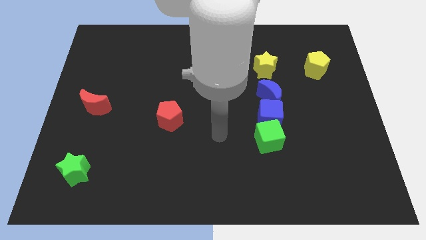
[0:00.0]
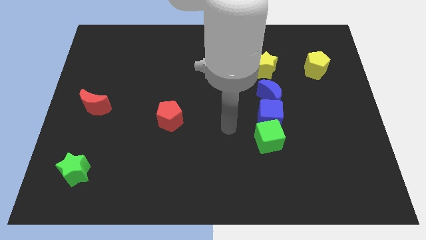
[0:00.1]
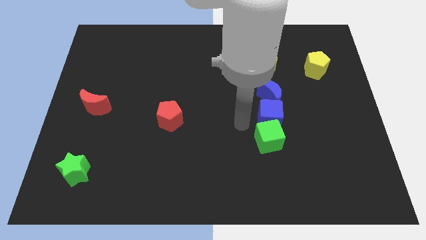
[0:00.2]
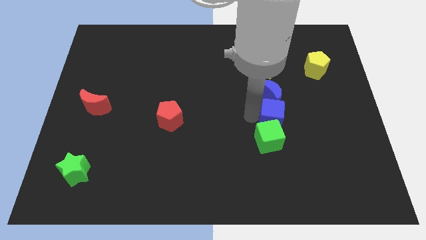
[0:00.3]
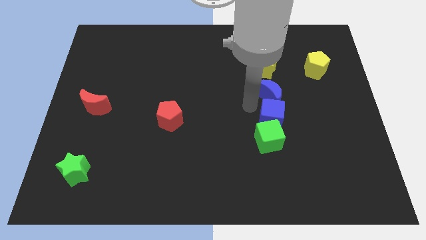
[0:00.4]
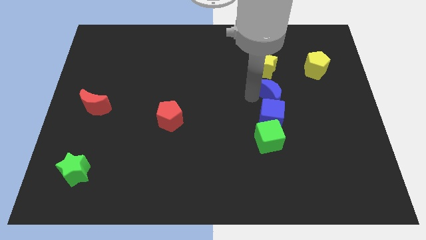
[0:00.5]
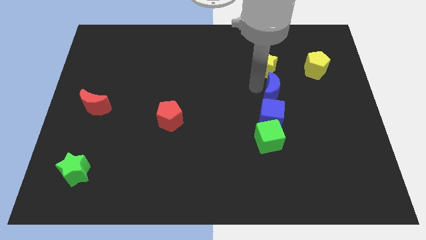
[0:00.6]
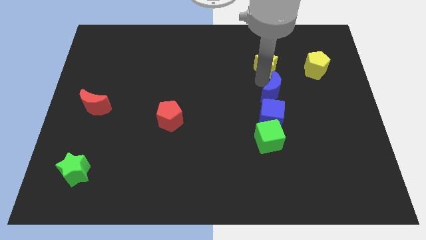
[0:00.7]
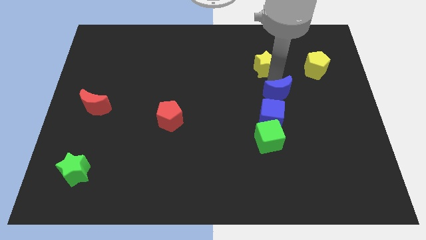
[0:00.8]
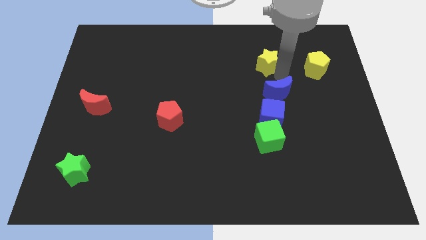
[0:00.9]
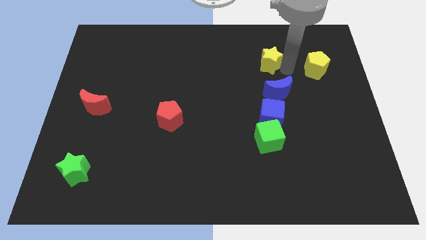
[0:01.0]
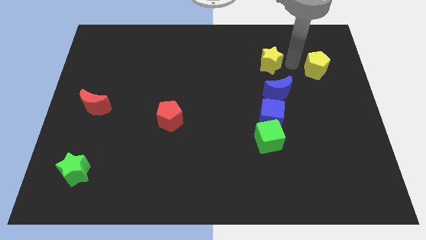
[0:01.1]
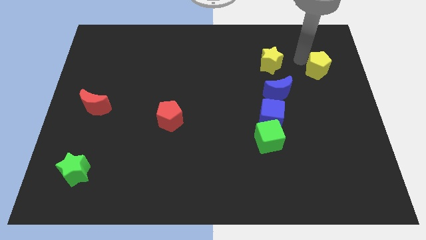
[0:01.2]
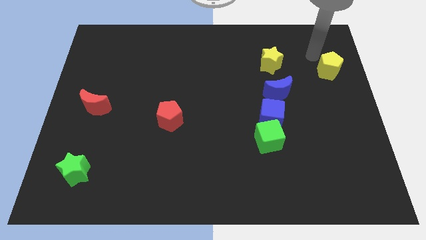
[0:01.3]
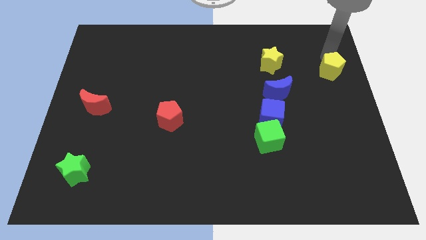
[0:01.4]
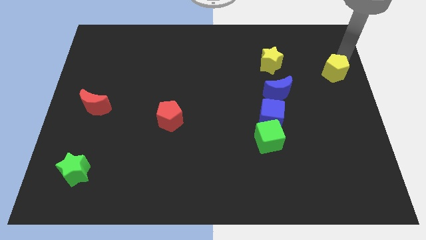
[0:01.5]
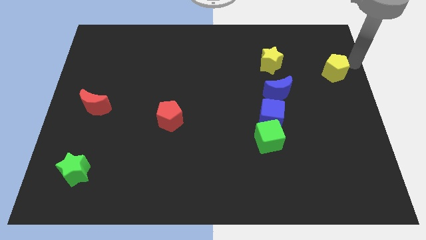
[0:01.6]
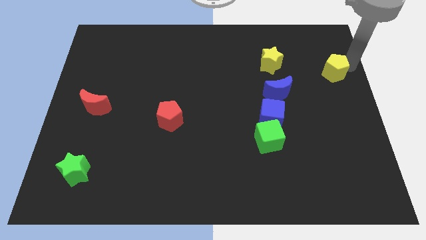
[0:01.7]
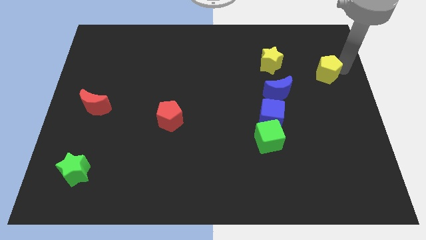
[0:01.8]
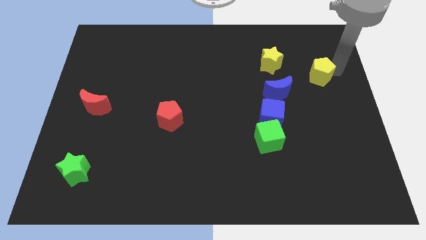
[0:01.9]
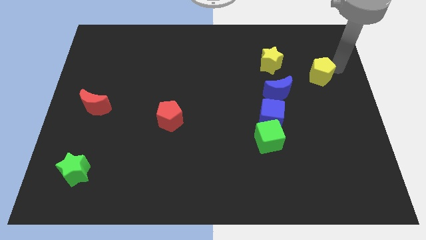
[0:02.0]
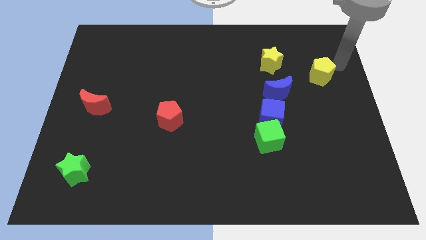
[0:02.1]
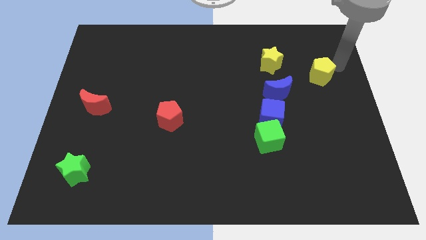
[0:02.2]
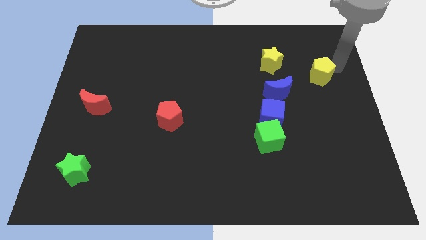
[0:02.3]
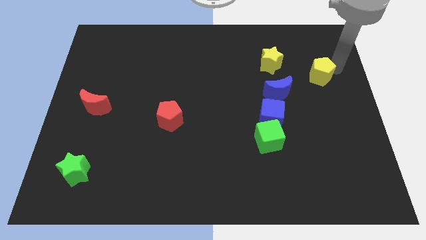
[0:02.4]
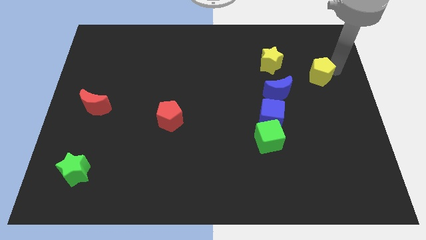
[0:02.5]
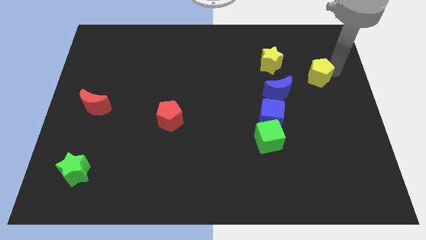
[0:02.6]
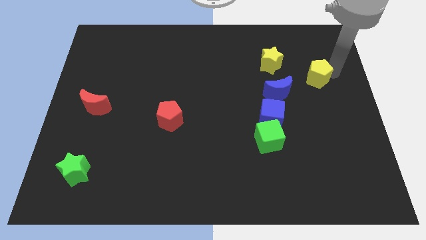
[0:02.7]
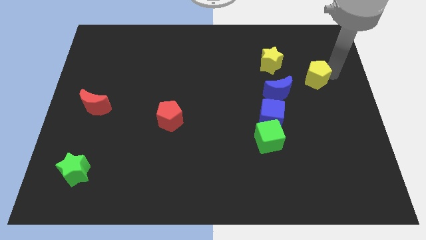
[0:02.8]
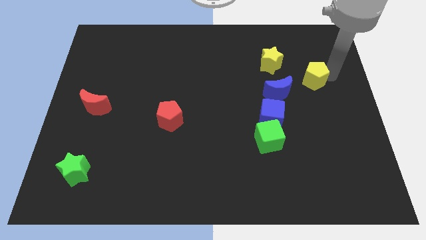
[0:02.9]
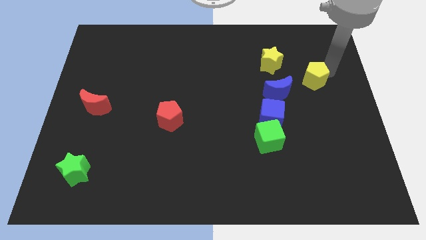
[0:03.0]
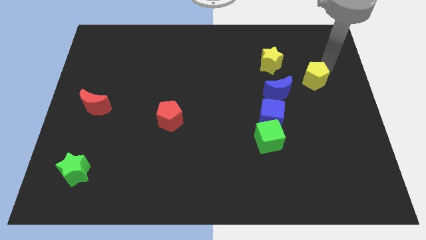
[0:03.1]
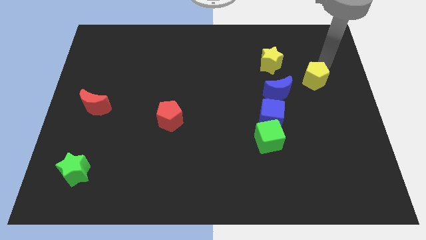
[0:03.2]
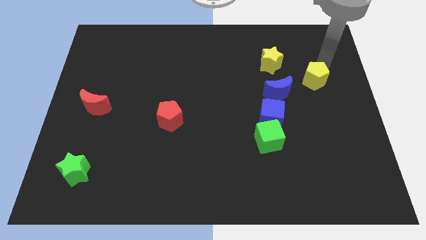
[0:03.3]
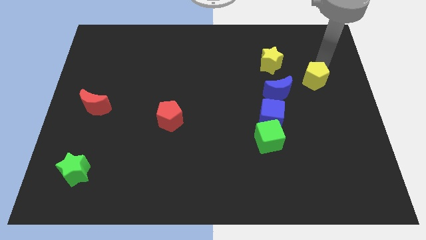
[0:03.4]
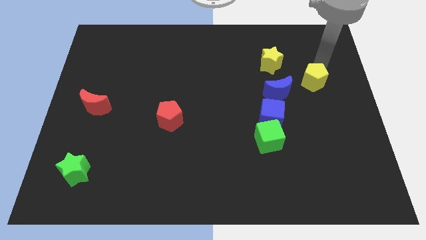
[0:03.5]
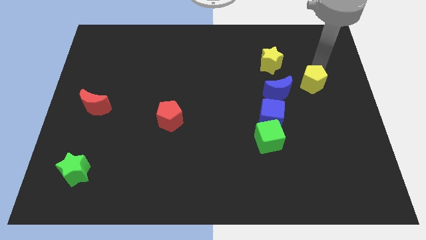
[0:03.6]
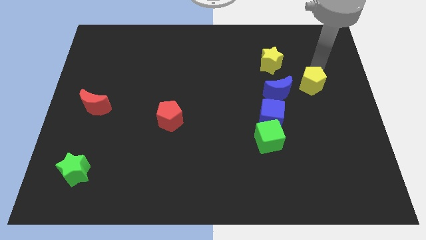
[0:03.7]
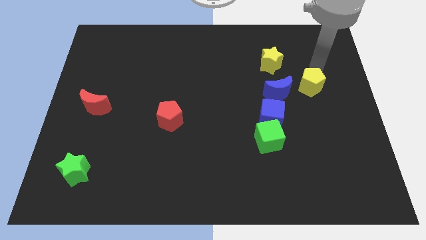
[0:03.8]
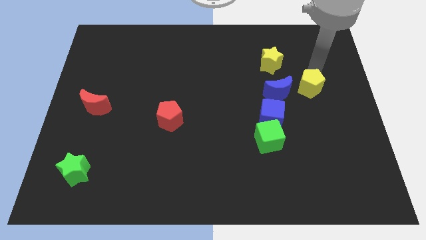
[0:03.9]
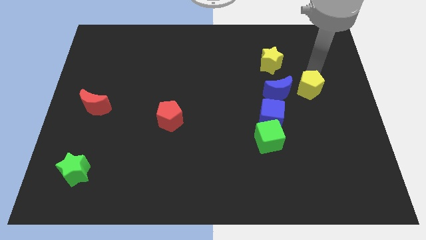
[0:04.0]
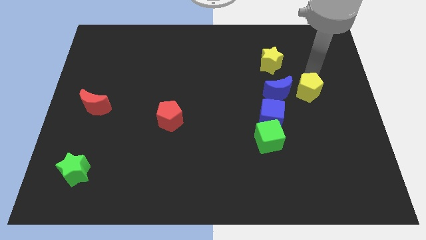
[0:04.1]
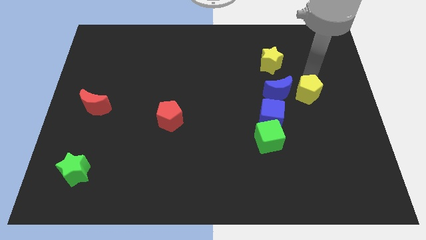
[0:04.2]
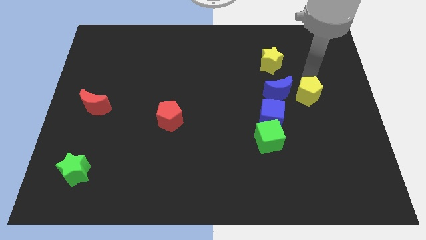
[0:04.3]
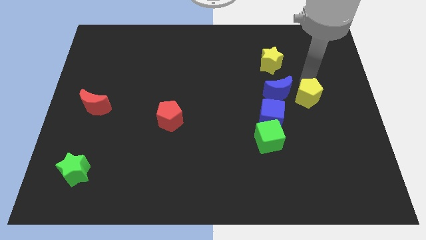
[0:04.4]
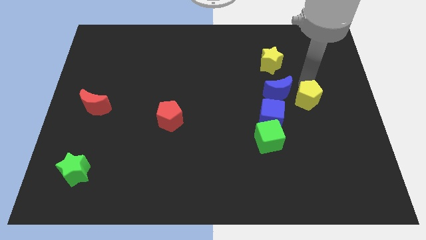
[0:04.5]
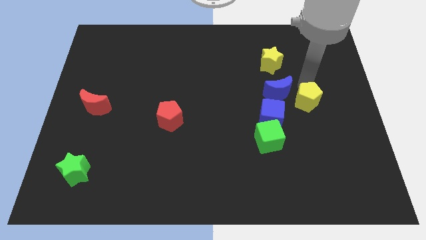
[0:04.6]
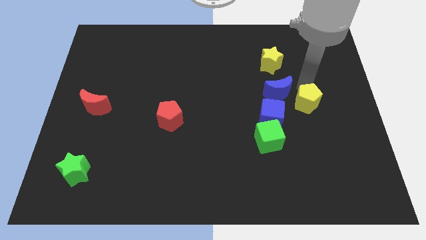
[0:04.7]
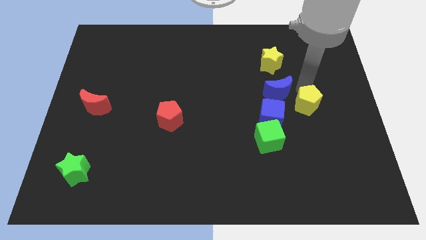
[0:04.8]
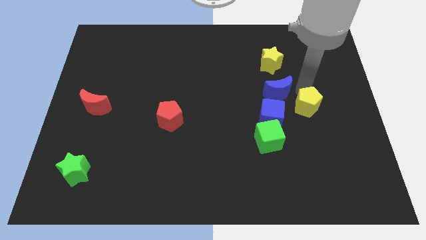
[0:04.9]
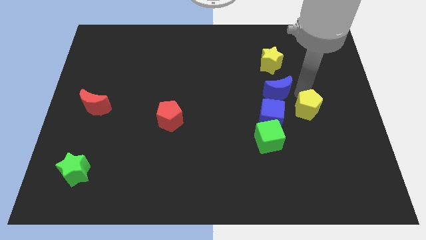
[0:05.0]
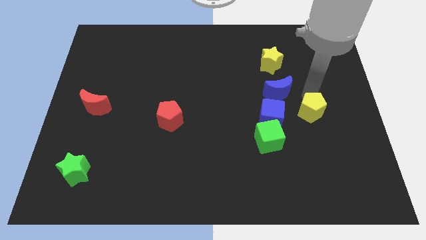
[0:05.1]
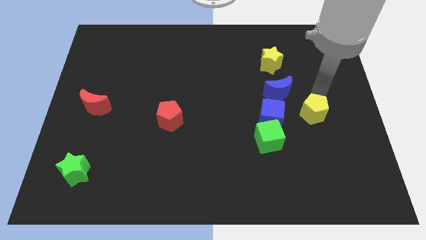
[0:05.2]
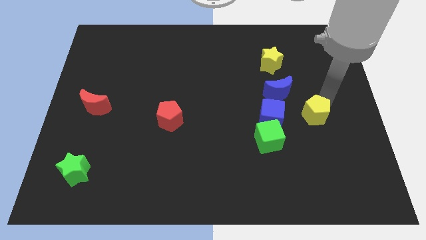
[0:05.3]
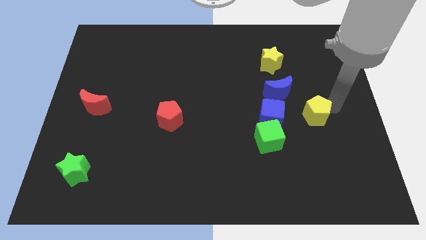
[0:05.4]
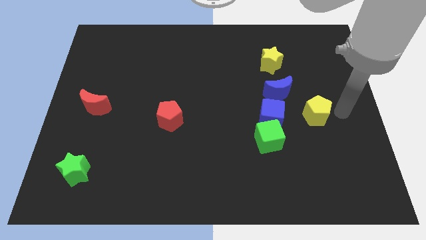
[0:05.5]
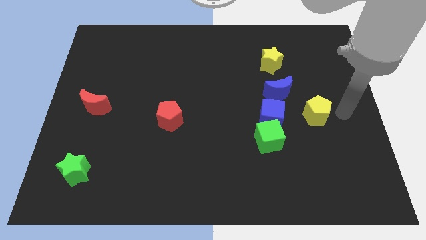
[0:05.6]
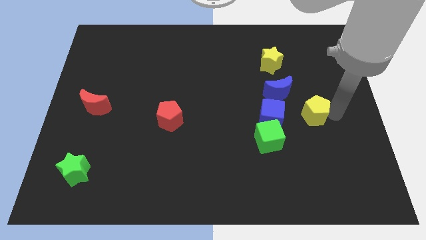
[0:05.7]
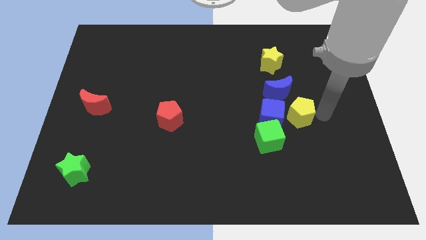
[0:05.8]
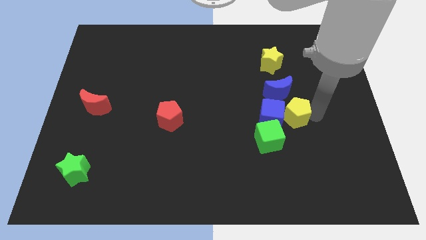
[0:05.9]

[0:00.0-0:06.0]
put the yellow pentagon towards the blue cube

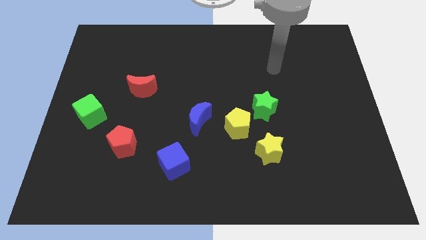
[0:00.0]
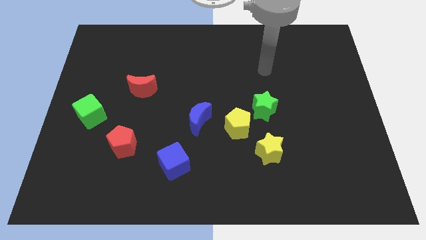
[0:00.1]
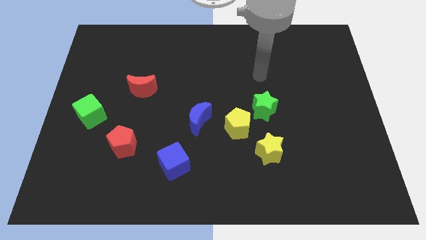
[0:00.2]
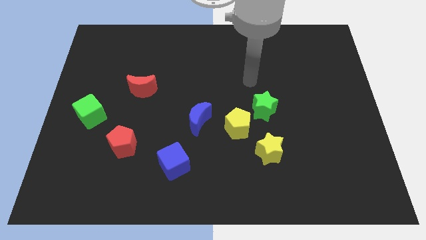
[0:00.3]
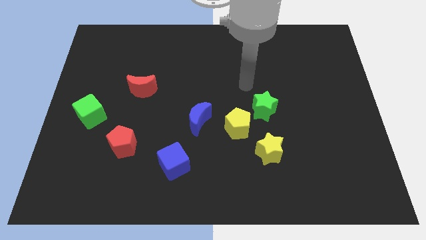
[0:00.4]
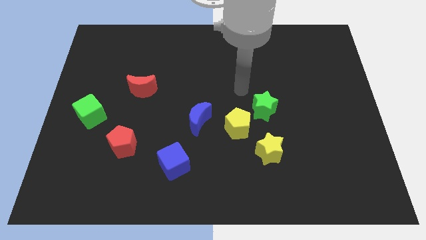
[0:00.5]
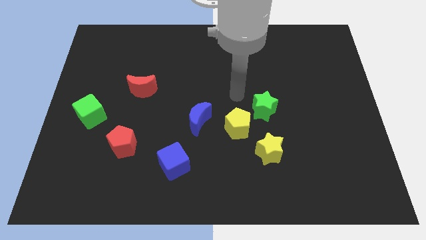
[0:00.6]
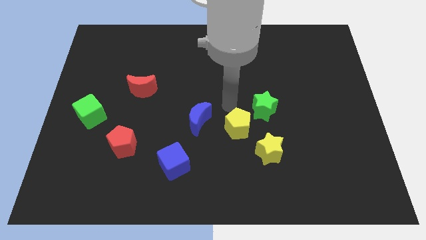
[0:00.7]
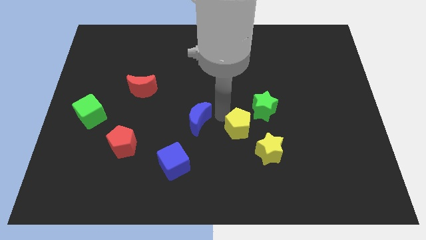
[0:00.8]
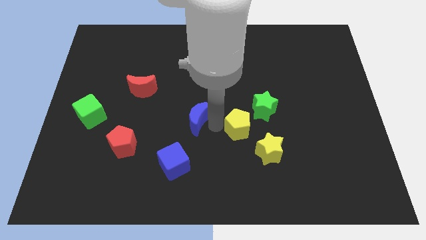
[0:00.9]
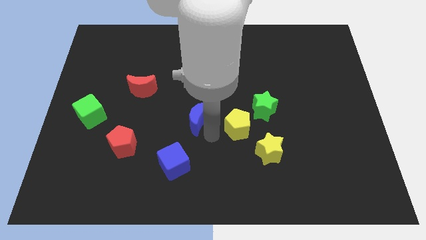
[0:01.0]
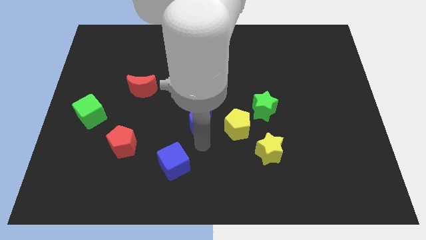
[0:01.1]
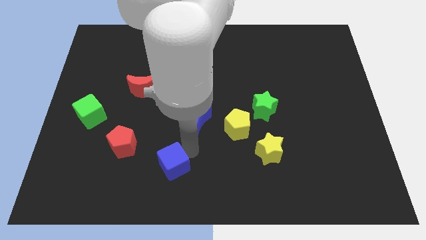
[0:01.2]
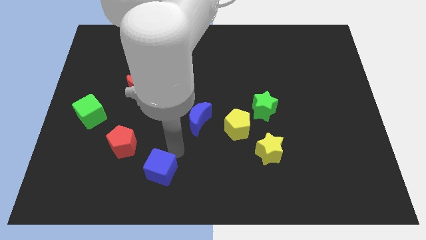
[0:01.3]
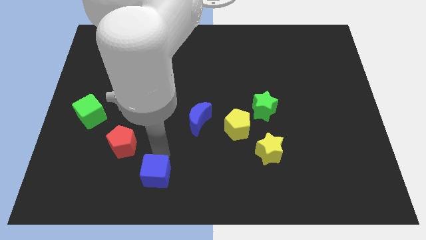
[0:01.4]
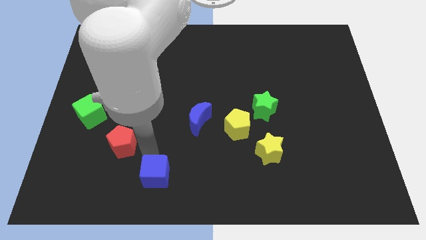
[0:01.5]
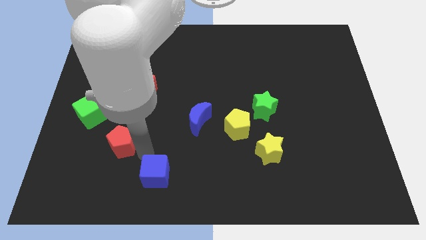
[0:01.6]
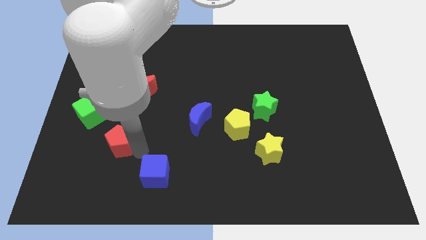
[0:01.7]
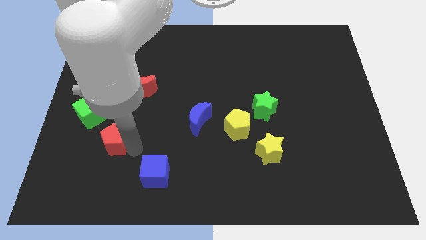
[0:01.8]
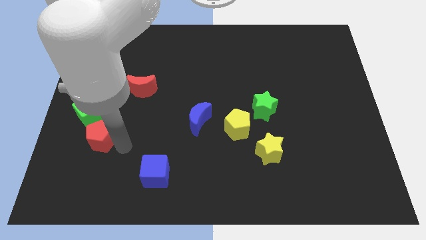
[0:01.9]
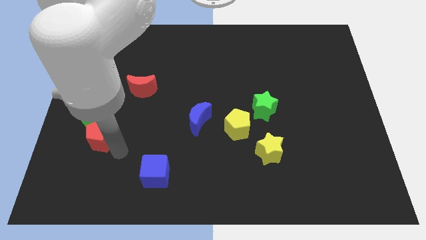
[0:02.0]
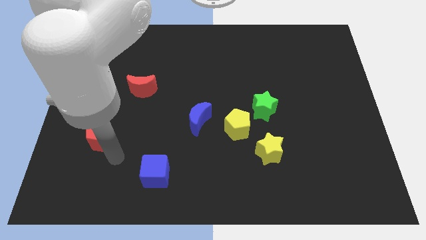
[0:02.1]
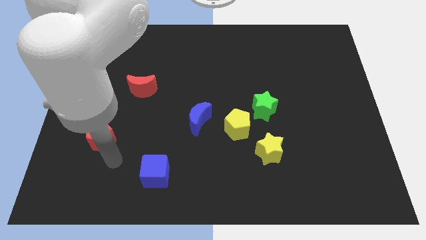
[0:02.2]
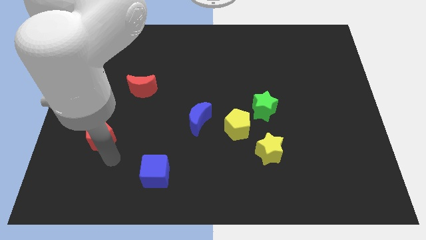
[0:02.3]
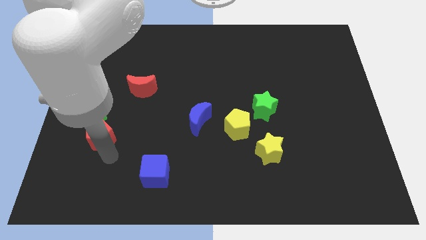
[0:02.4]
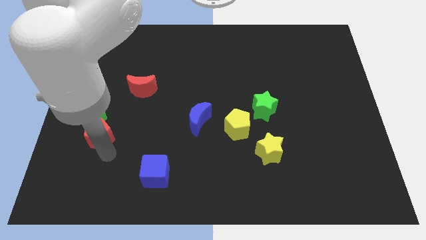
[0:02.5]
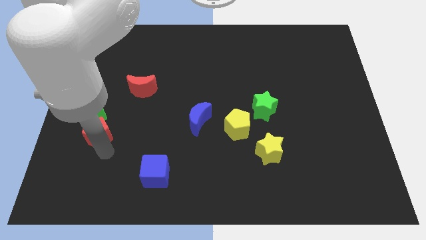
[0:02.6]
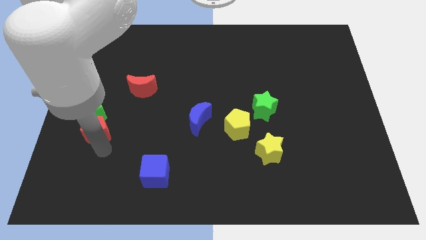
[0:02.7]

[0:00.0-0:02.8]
push the red pentagon close to the green cube
